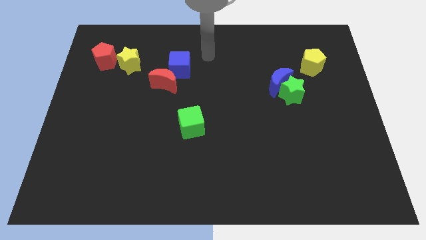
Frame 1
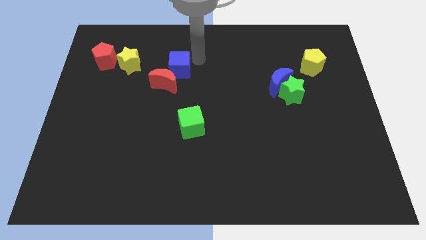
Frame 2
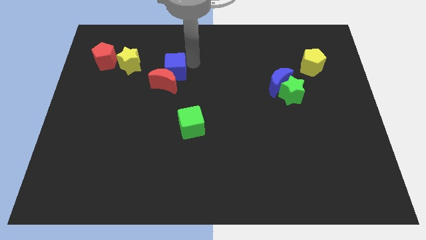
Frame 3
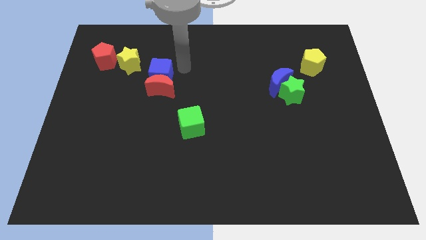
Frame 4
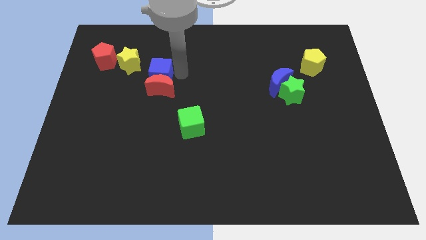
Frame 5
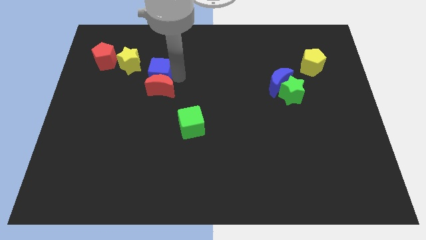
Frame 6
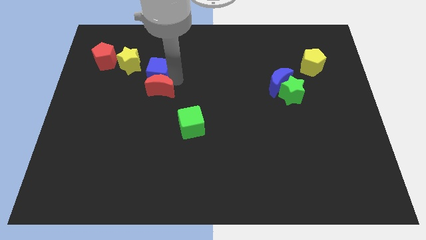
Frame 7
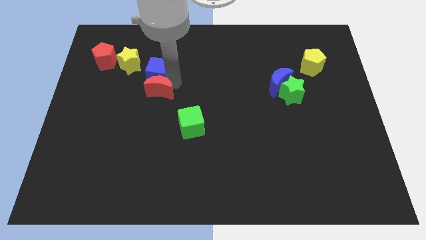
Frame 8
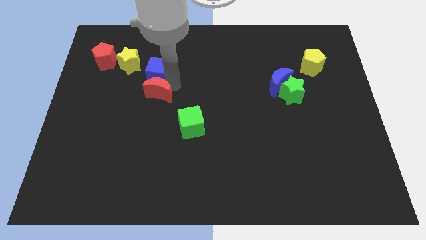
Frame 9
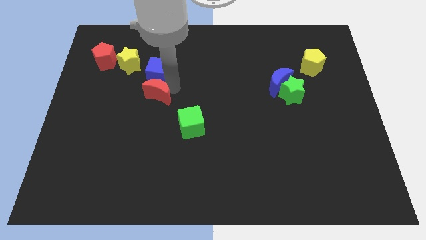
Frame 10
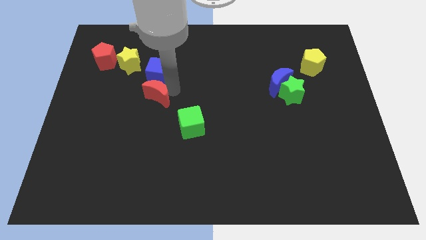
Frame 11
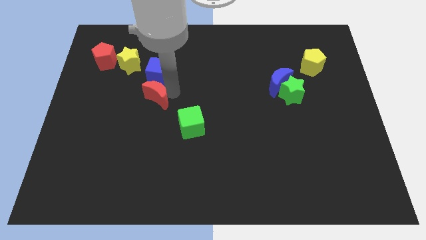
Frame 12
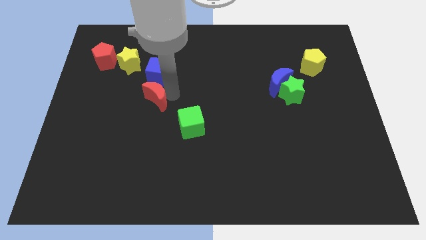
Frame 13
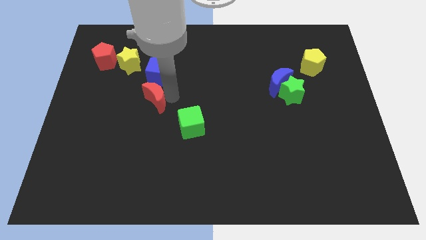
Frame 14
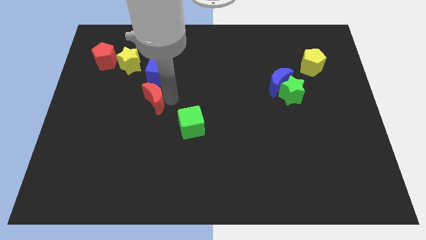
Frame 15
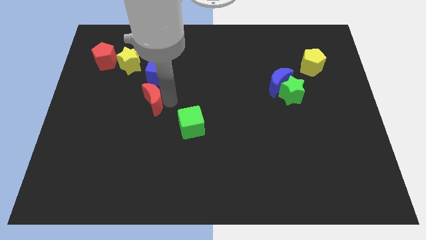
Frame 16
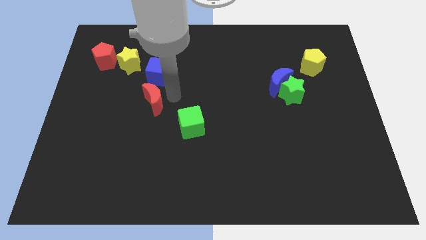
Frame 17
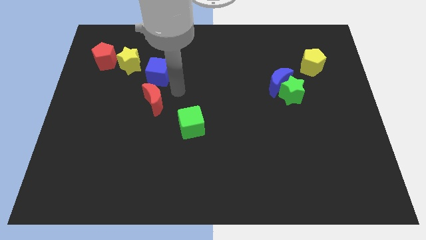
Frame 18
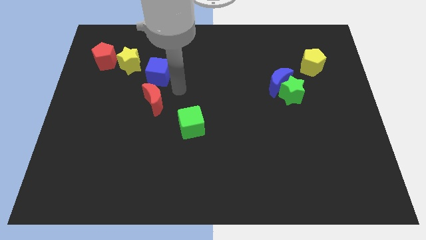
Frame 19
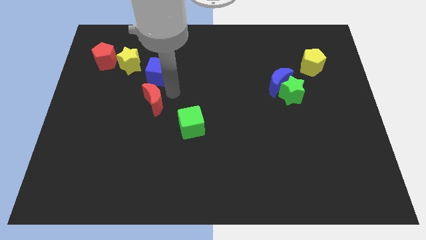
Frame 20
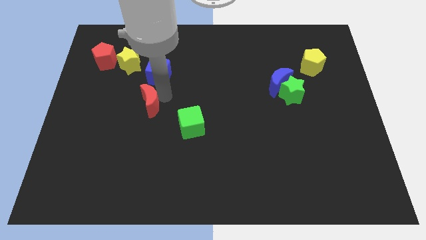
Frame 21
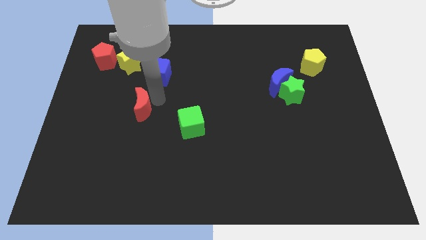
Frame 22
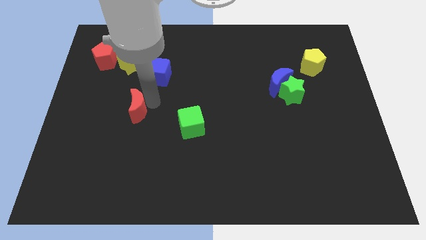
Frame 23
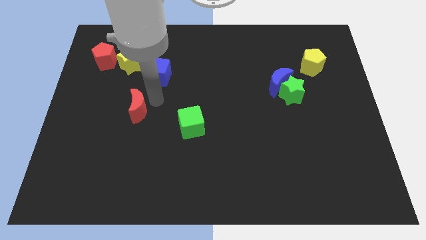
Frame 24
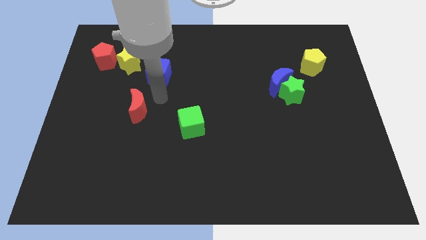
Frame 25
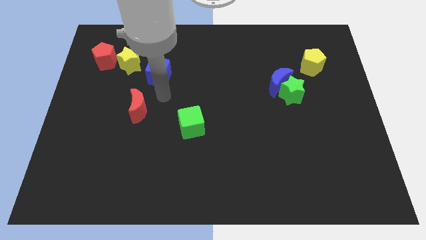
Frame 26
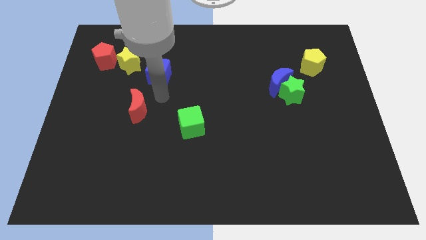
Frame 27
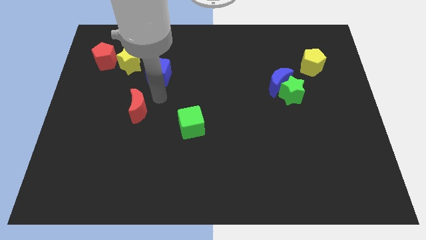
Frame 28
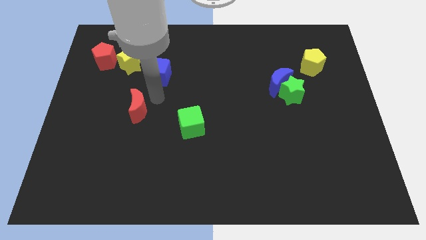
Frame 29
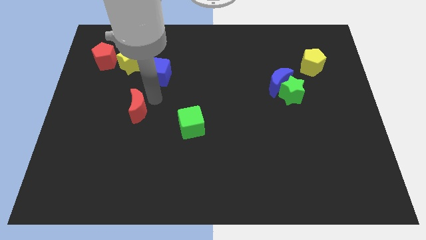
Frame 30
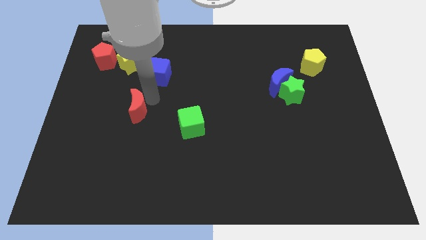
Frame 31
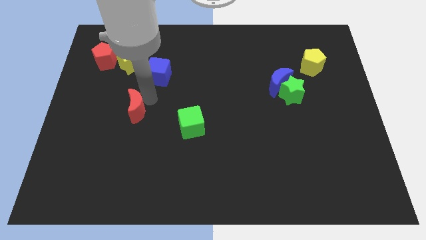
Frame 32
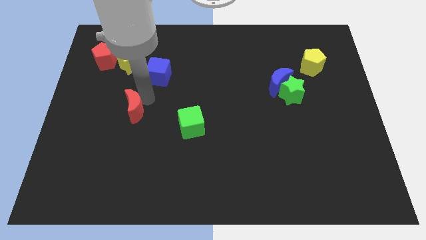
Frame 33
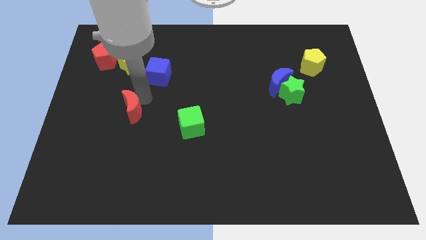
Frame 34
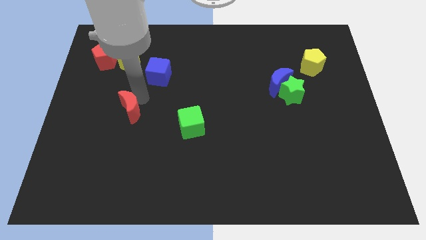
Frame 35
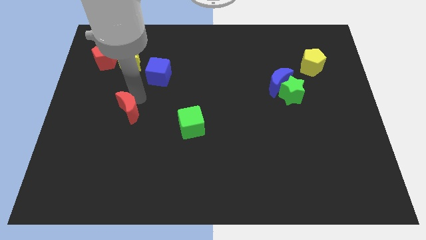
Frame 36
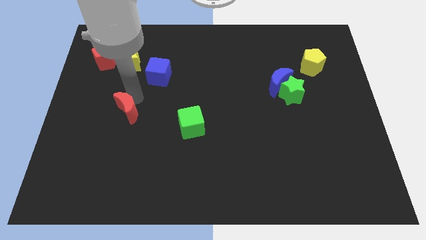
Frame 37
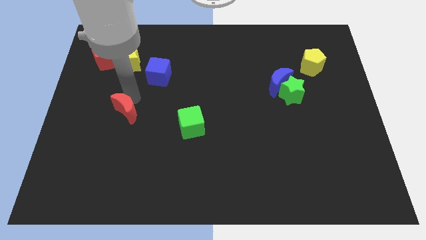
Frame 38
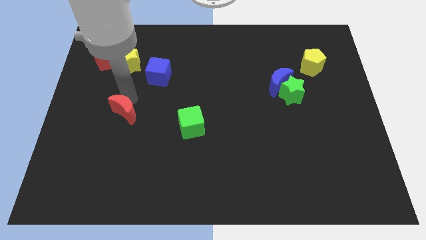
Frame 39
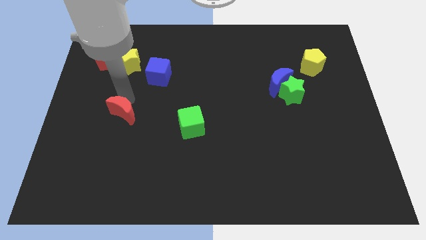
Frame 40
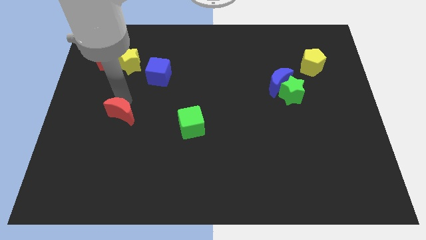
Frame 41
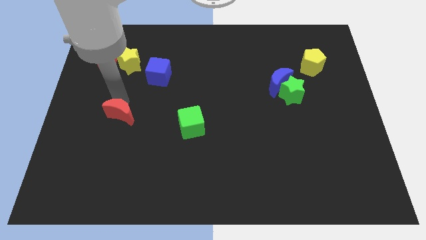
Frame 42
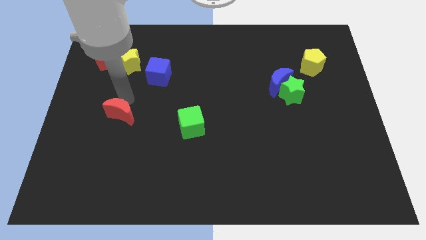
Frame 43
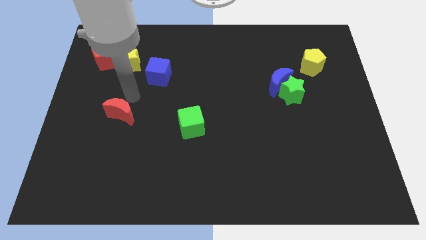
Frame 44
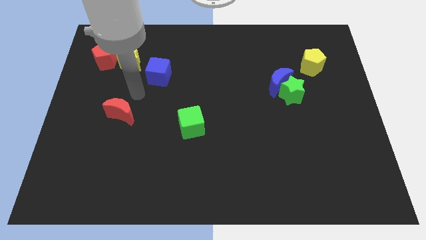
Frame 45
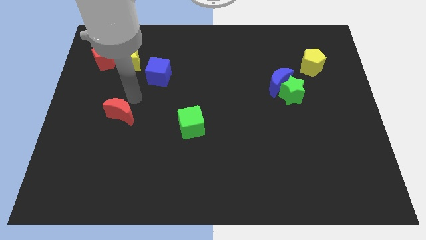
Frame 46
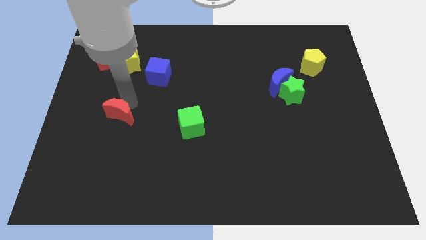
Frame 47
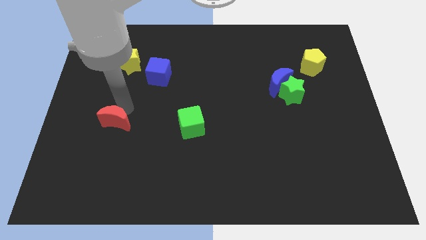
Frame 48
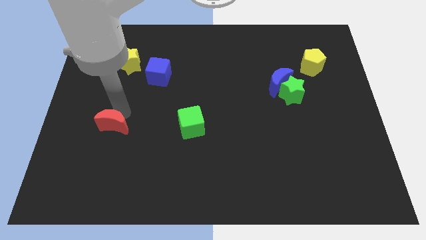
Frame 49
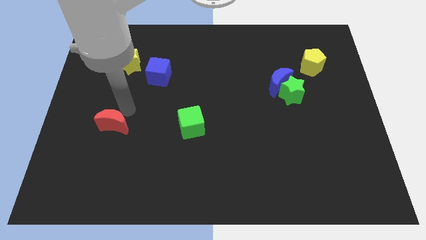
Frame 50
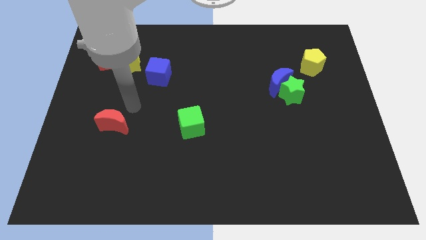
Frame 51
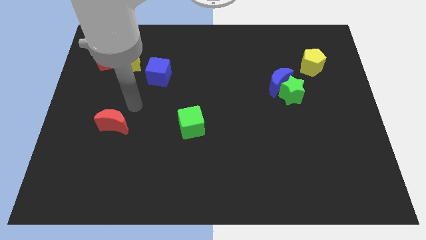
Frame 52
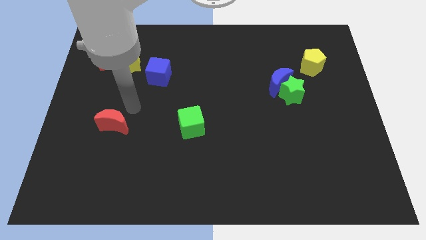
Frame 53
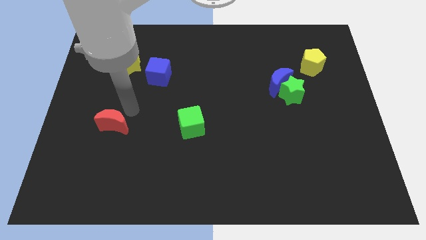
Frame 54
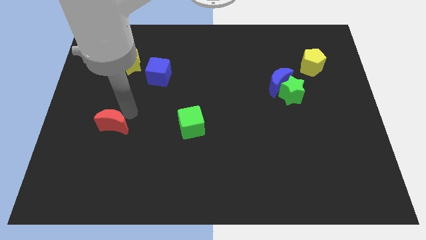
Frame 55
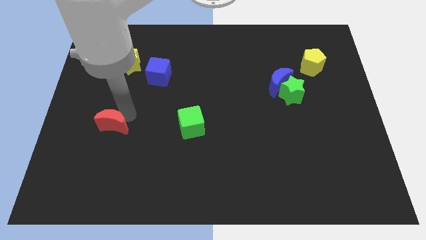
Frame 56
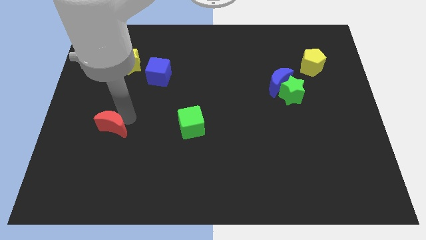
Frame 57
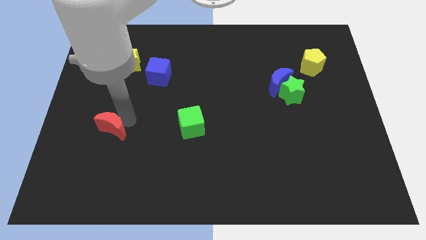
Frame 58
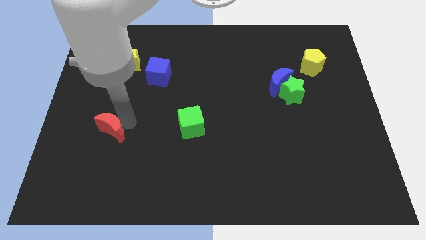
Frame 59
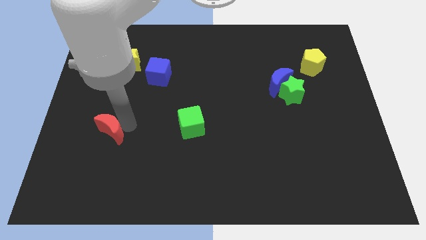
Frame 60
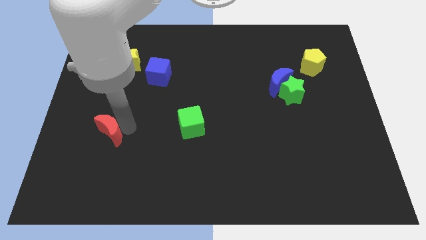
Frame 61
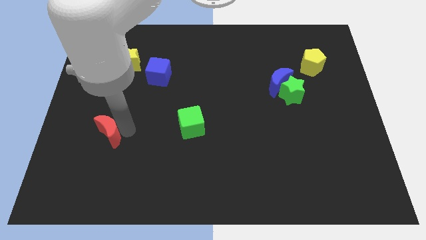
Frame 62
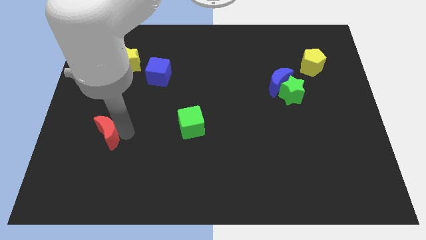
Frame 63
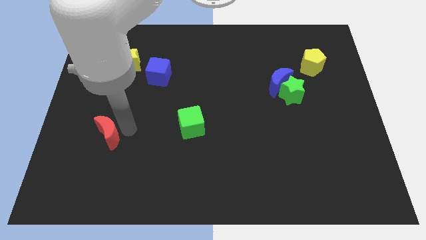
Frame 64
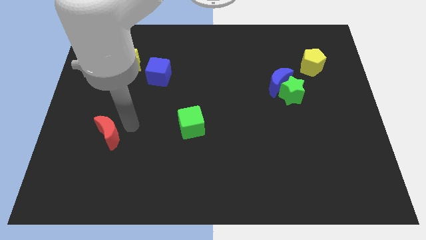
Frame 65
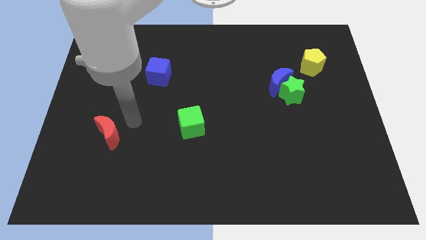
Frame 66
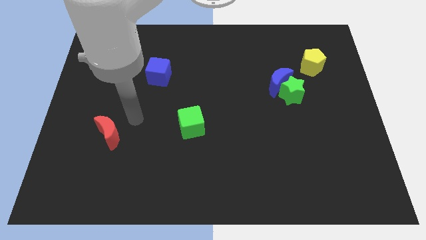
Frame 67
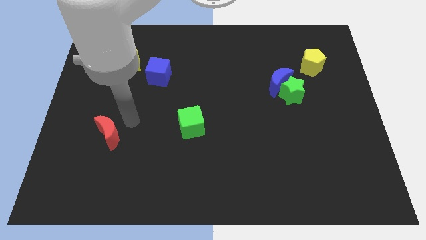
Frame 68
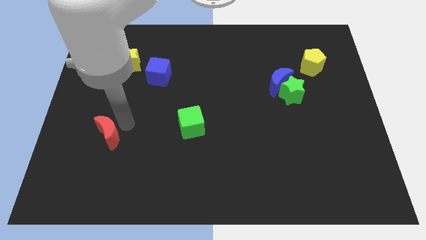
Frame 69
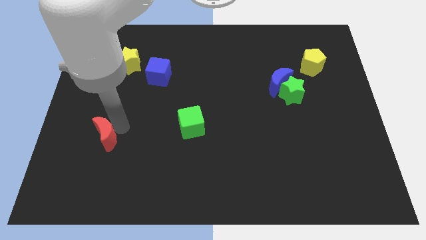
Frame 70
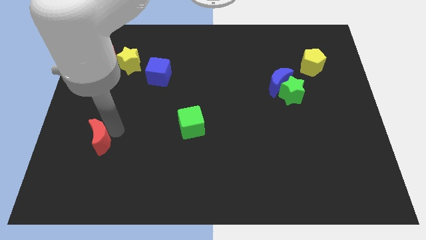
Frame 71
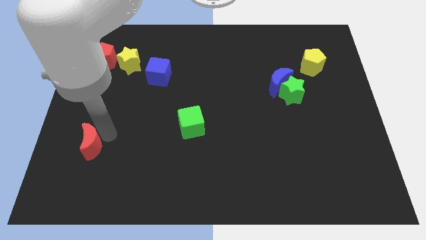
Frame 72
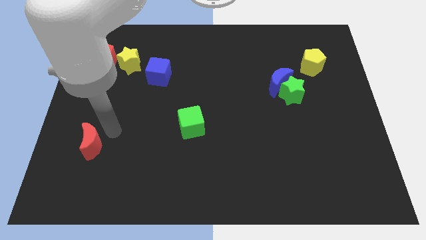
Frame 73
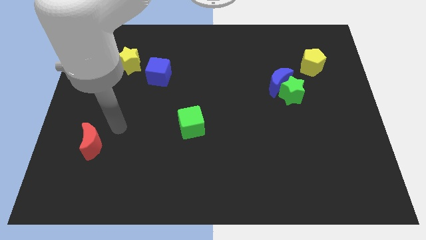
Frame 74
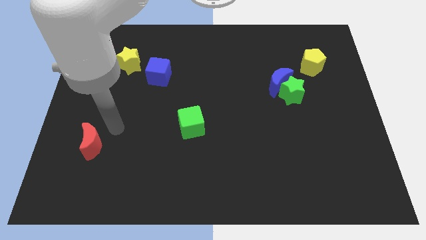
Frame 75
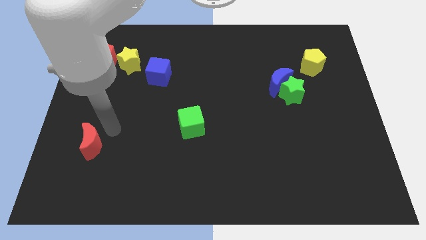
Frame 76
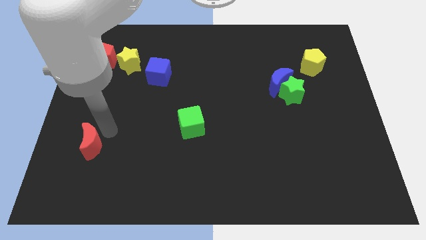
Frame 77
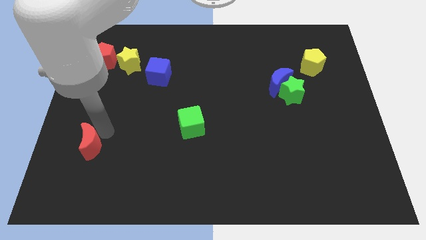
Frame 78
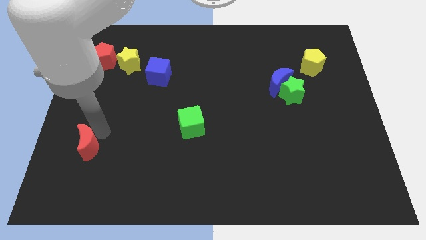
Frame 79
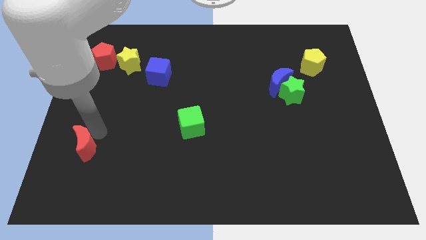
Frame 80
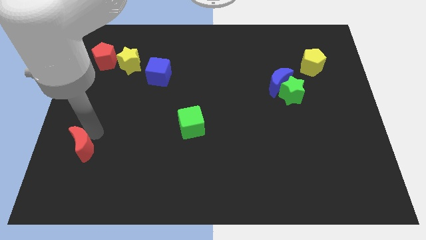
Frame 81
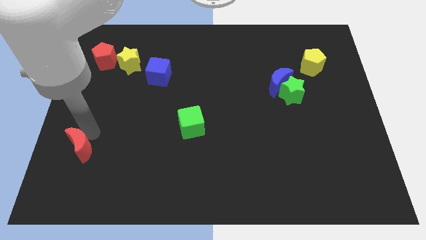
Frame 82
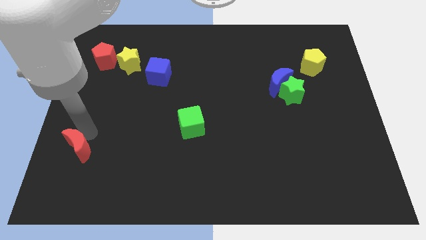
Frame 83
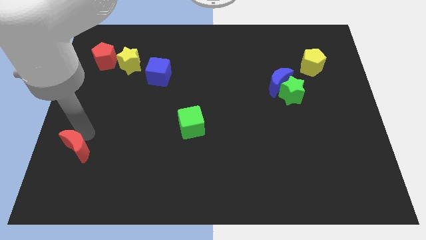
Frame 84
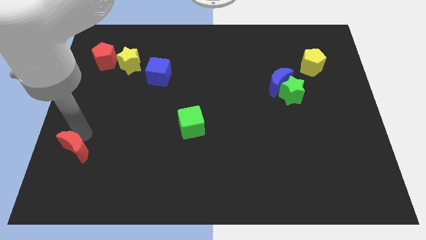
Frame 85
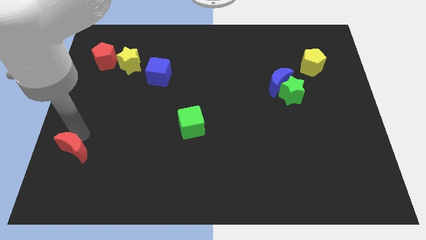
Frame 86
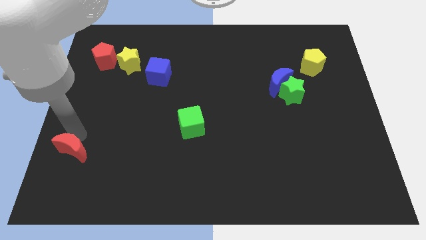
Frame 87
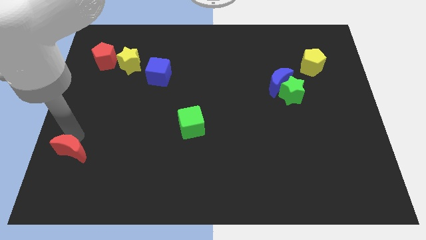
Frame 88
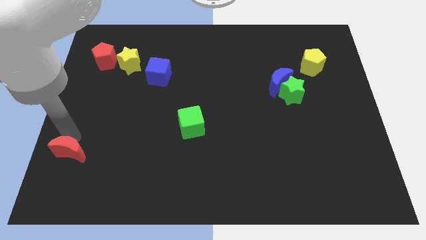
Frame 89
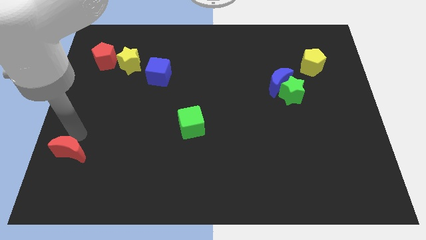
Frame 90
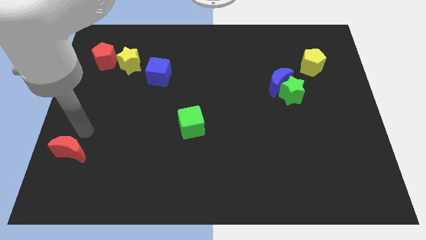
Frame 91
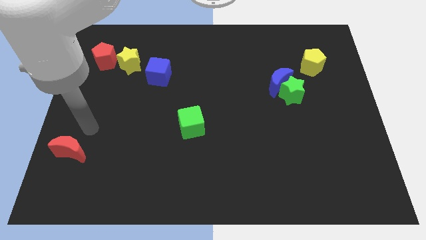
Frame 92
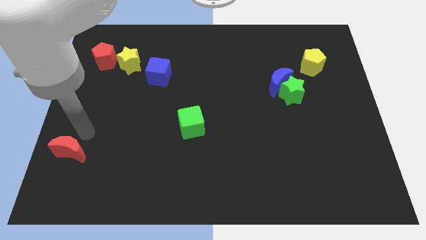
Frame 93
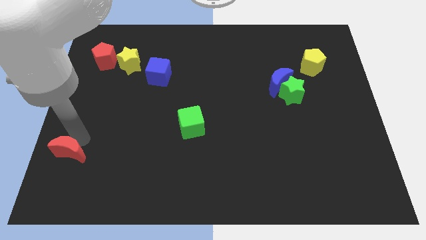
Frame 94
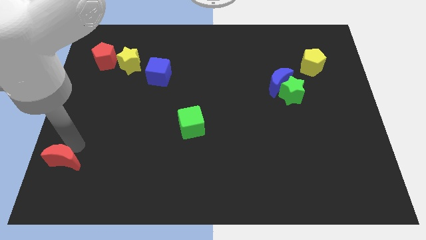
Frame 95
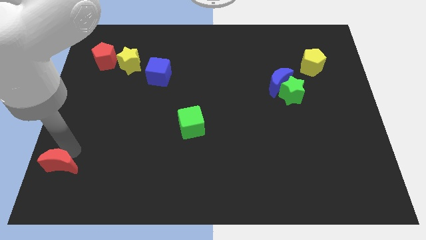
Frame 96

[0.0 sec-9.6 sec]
slide the red moon to the bottom left
